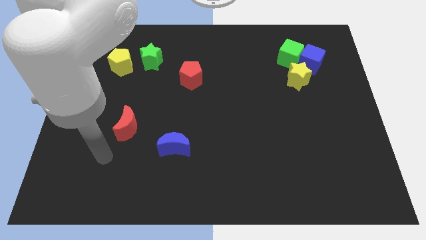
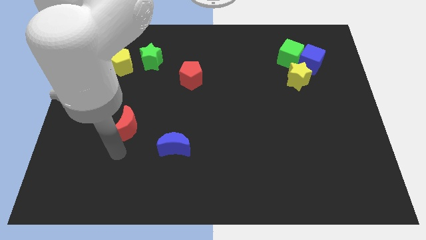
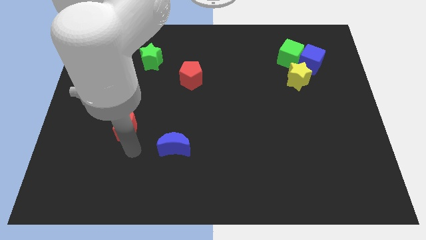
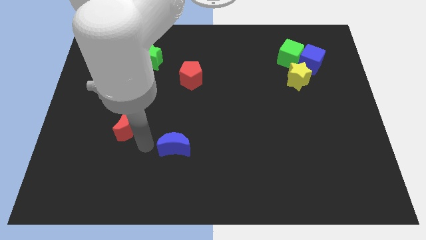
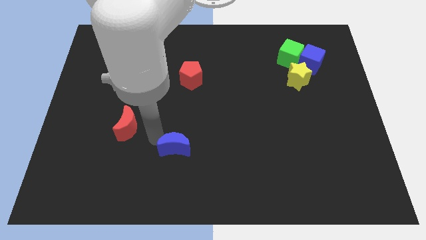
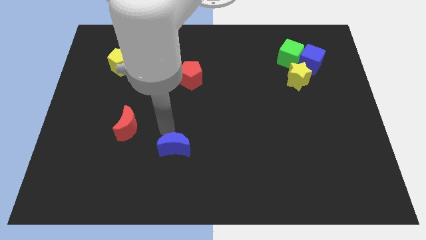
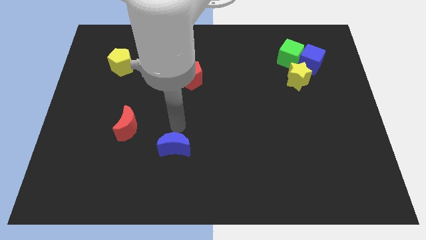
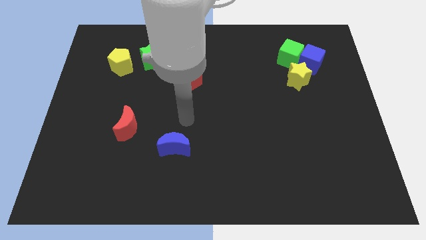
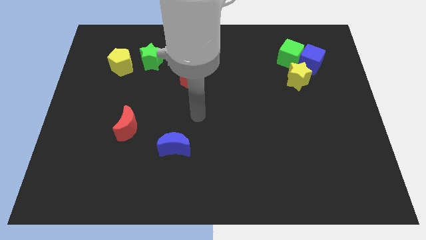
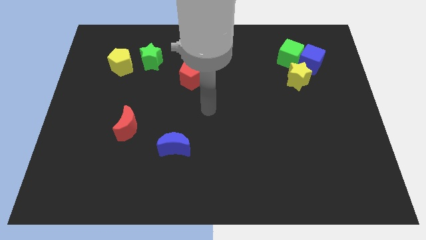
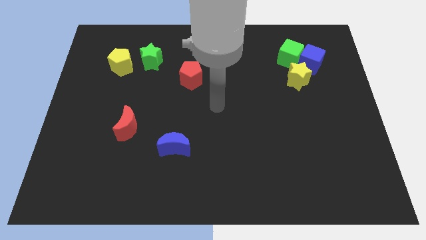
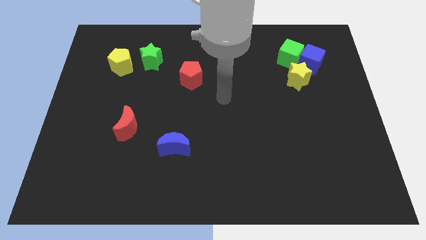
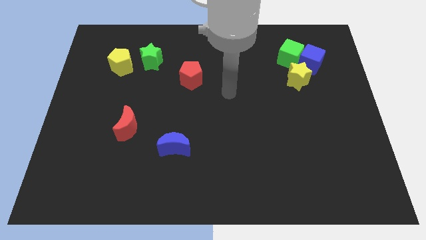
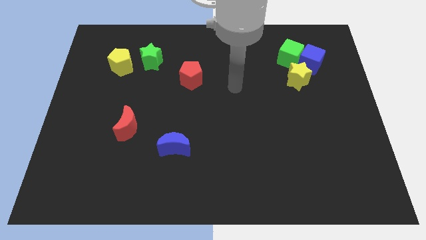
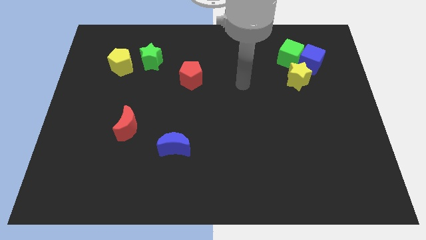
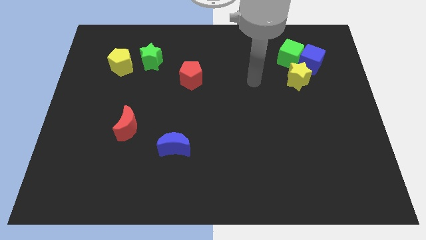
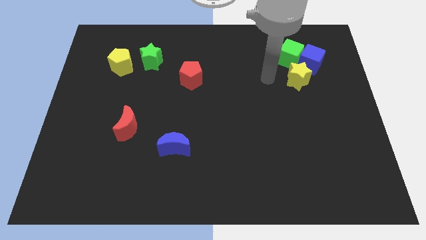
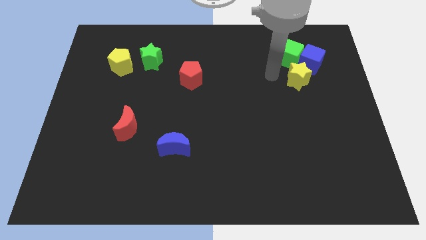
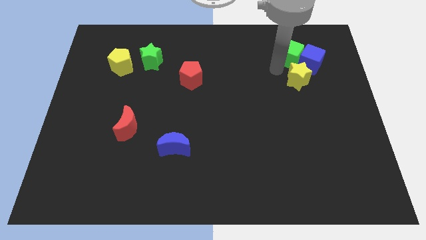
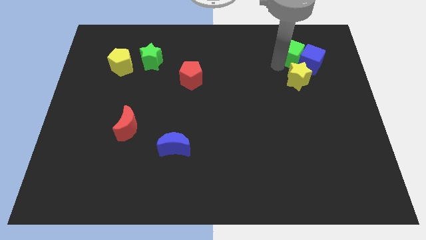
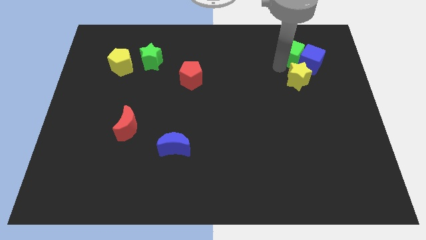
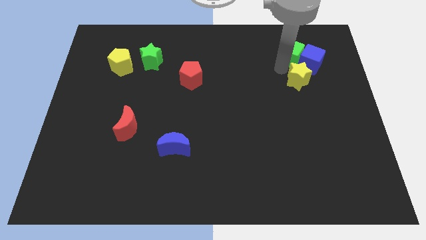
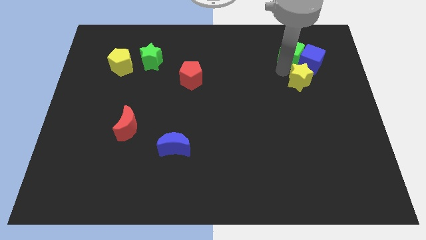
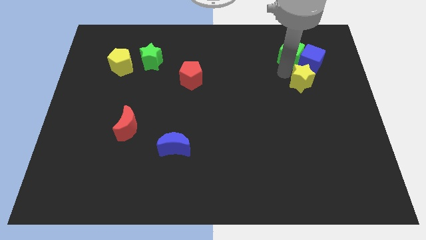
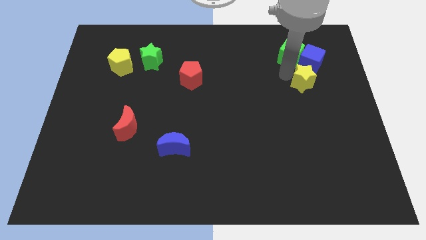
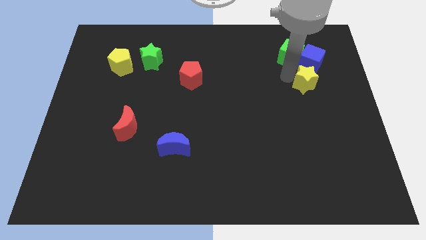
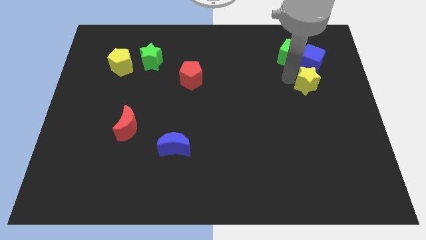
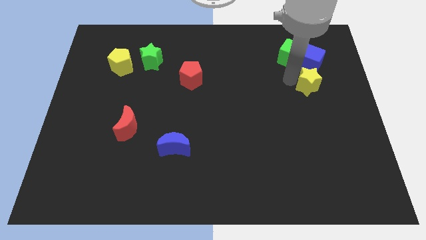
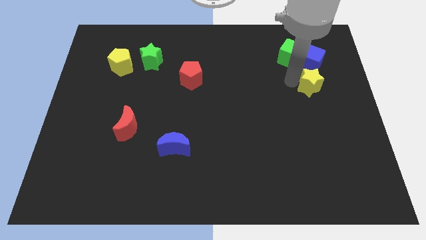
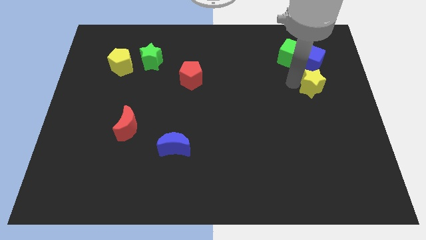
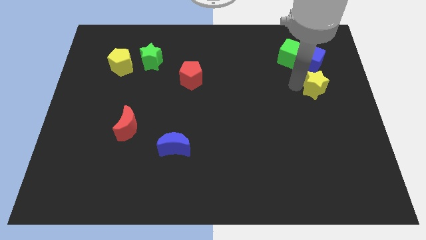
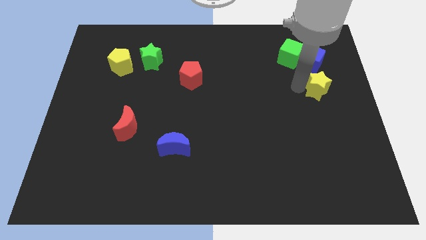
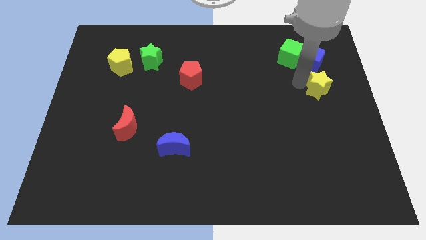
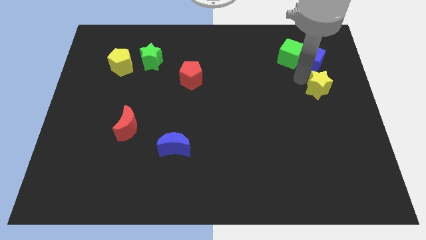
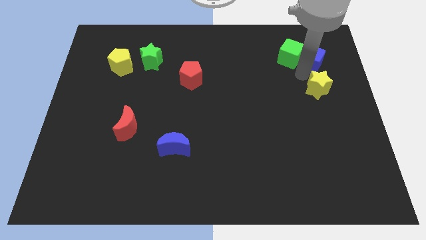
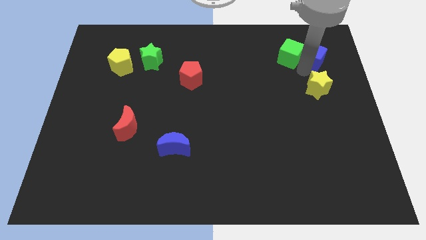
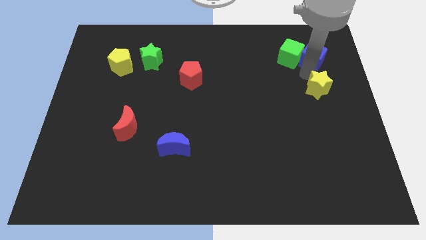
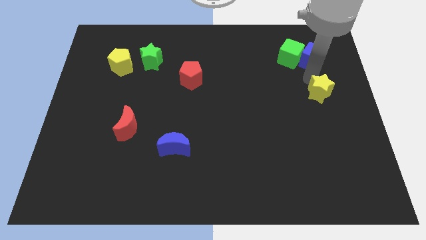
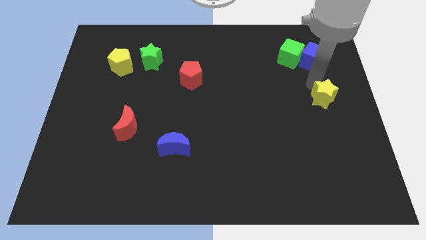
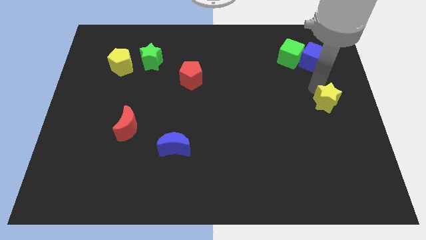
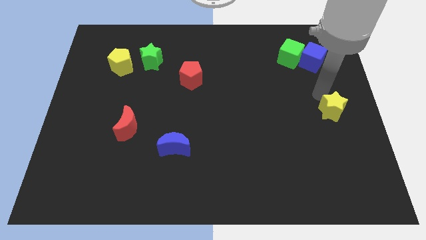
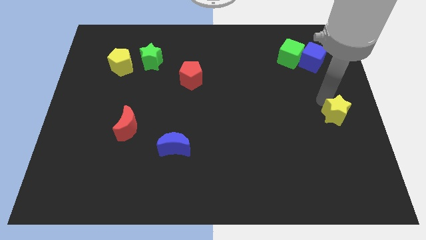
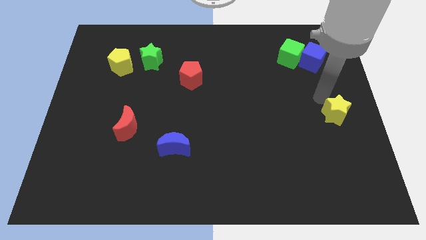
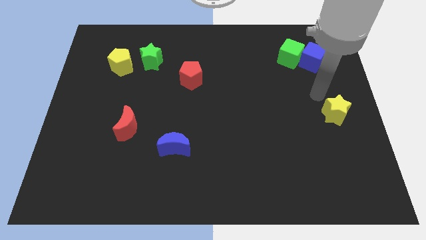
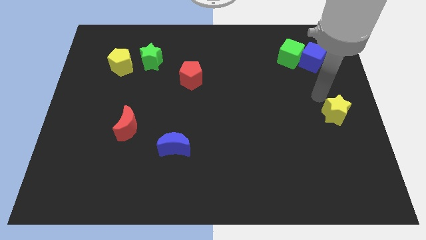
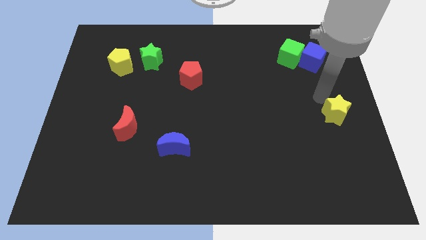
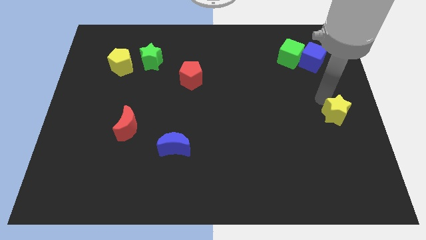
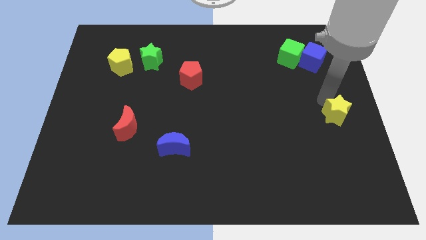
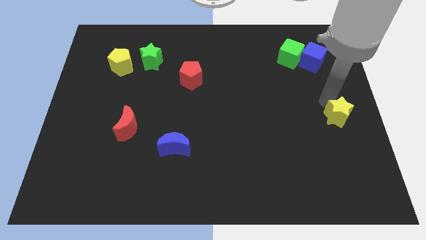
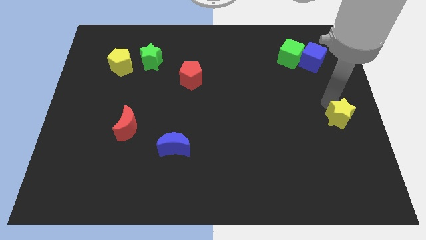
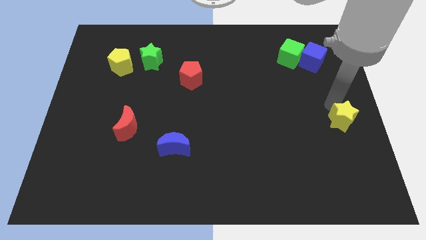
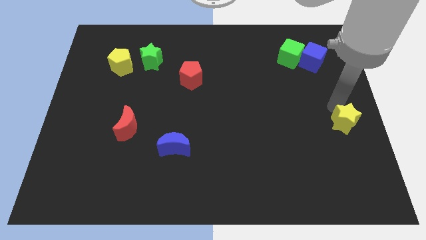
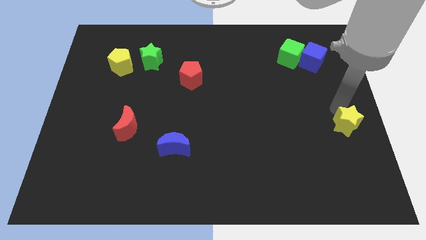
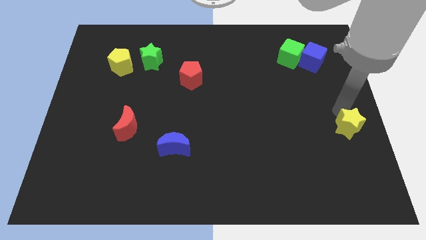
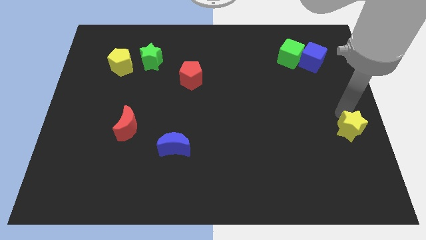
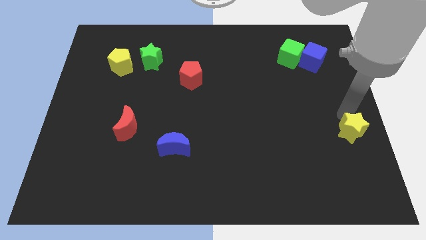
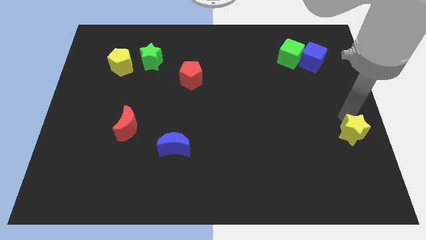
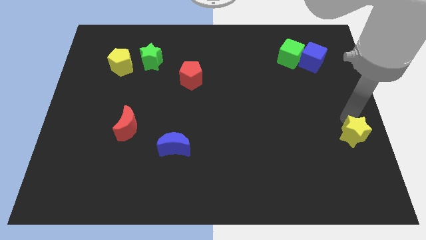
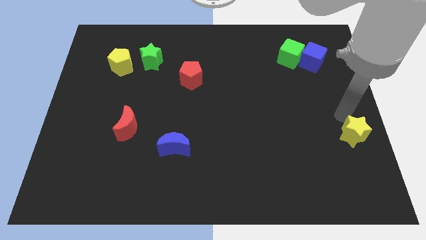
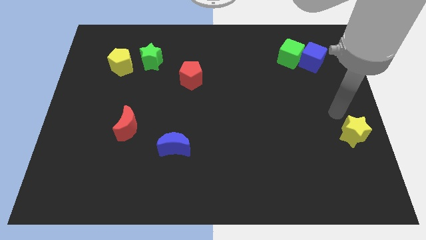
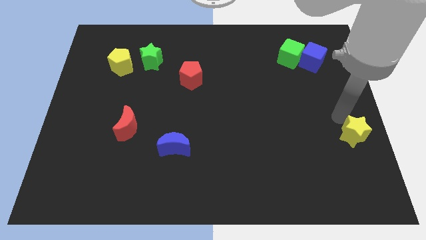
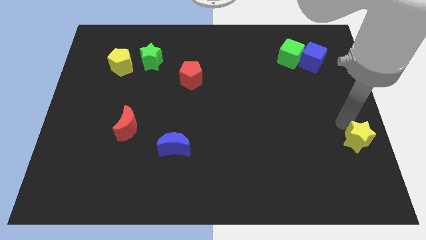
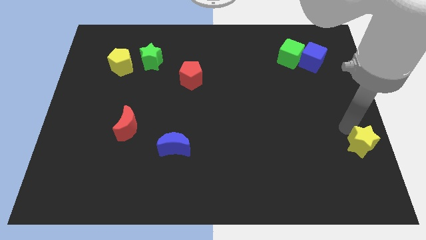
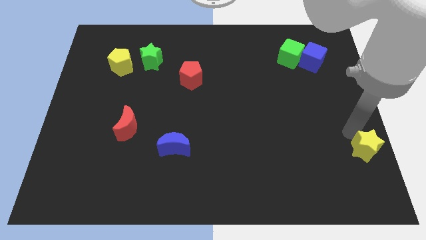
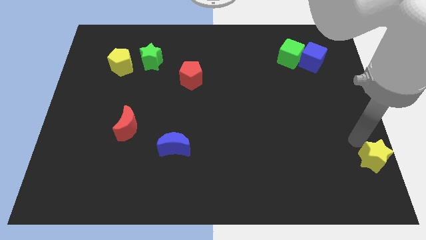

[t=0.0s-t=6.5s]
move the yellow star to the bottom right corner
